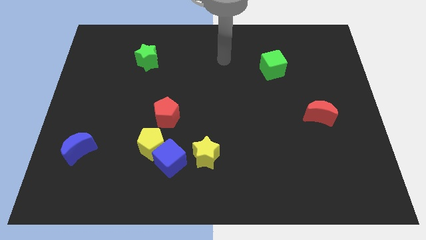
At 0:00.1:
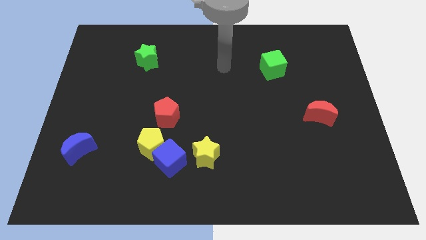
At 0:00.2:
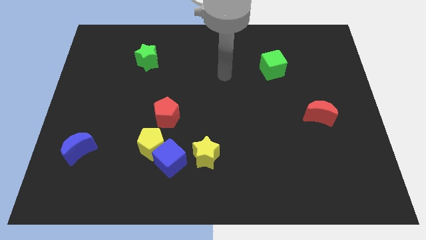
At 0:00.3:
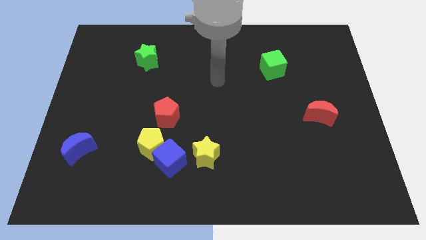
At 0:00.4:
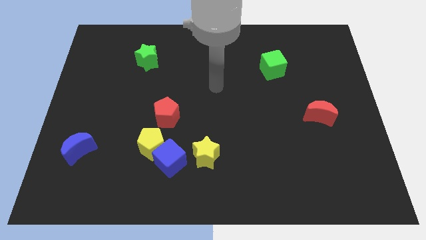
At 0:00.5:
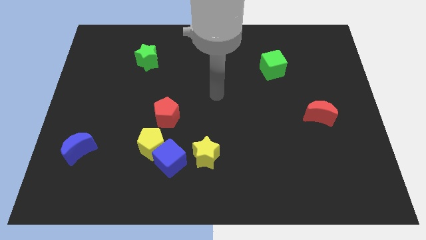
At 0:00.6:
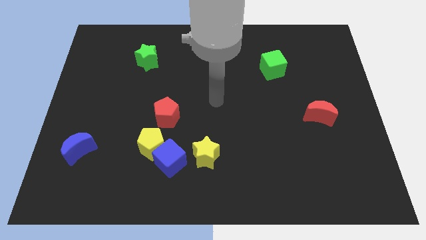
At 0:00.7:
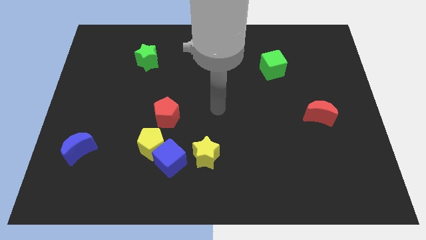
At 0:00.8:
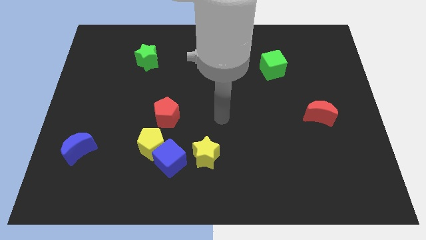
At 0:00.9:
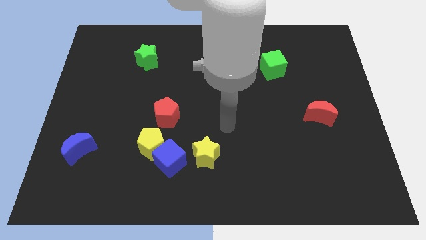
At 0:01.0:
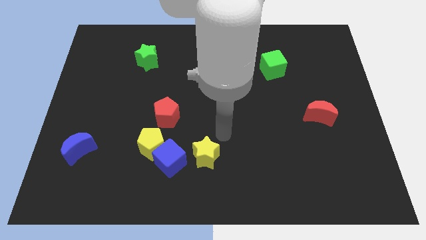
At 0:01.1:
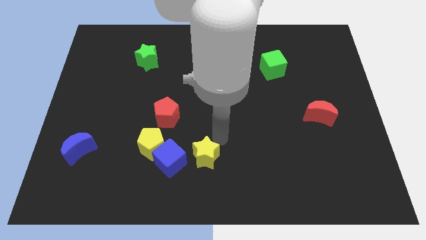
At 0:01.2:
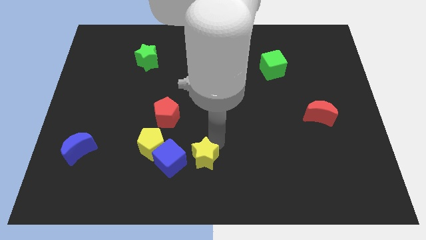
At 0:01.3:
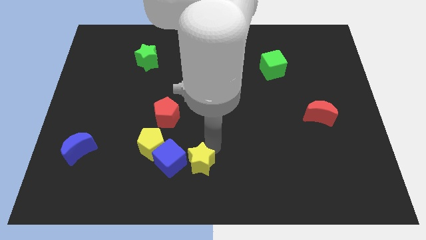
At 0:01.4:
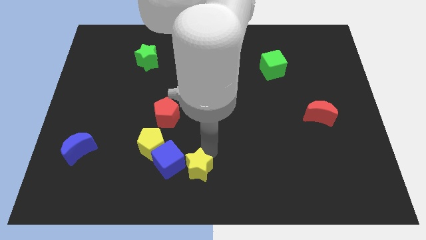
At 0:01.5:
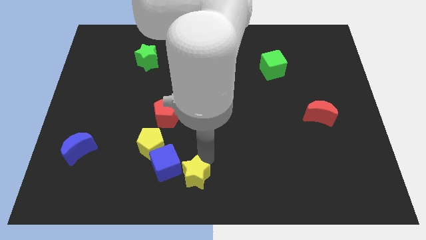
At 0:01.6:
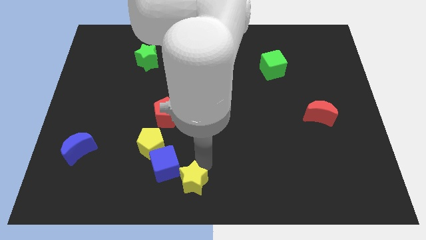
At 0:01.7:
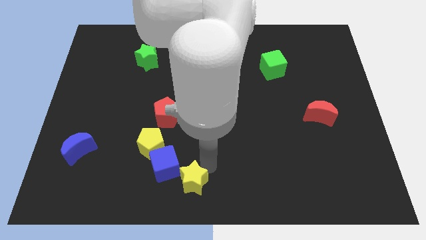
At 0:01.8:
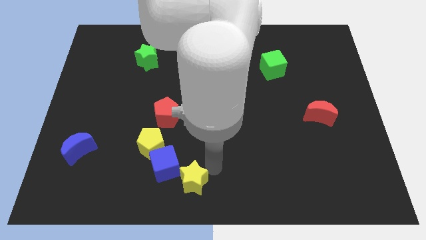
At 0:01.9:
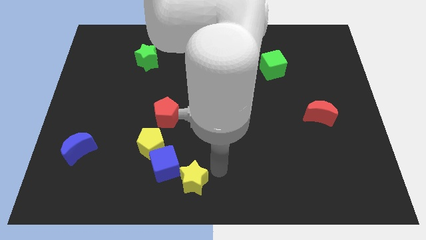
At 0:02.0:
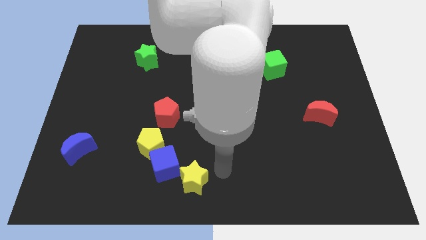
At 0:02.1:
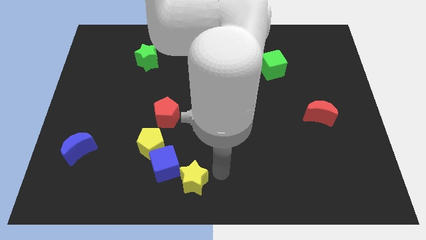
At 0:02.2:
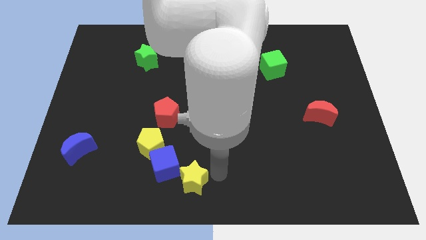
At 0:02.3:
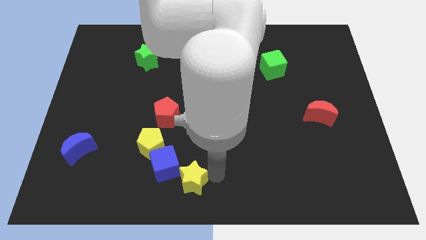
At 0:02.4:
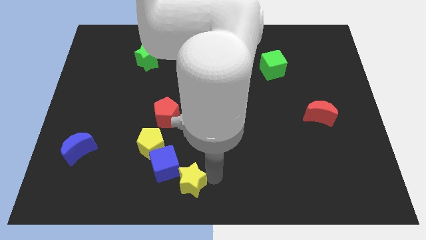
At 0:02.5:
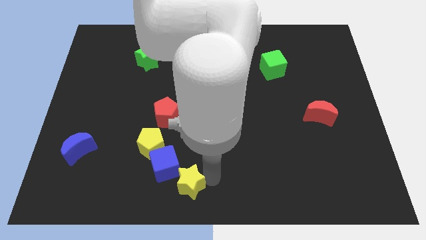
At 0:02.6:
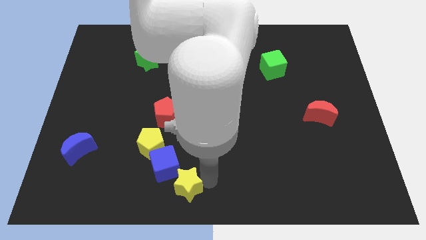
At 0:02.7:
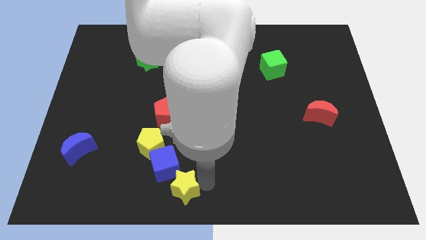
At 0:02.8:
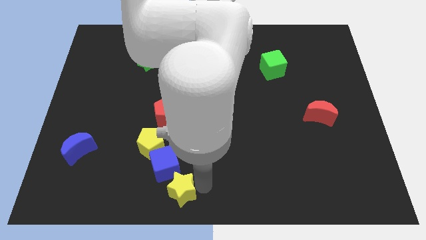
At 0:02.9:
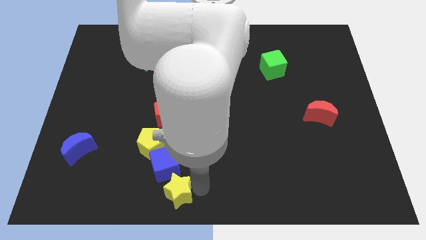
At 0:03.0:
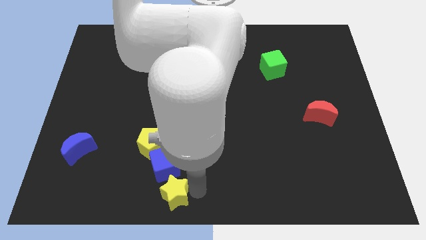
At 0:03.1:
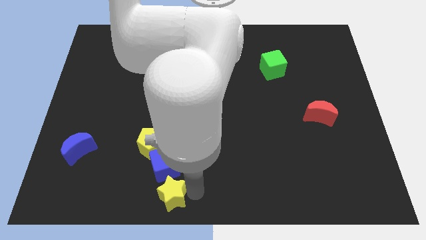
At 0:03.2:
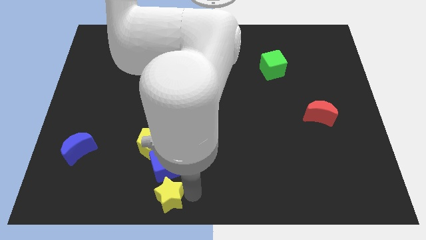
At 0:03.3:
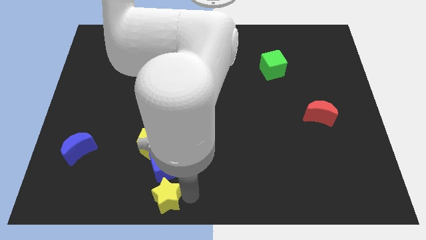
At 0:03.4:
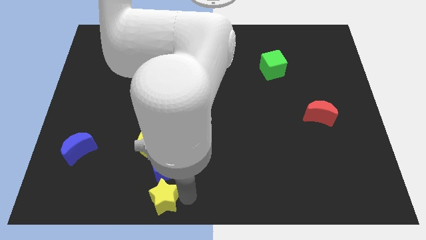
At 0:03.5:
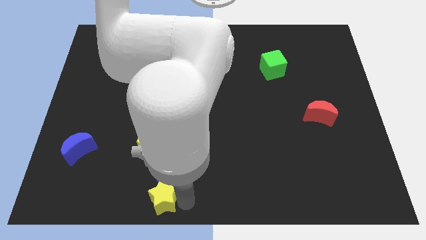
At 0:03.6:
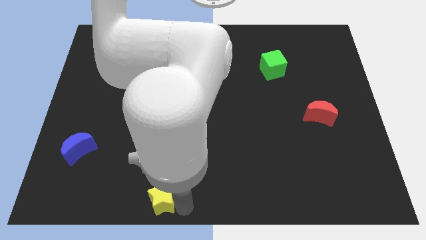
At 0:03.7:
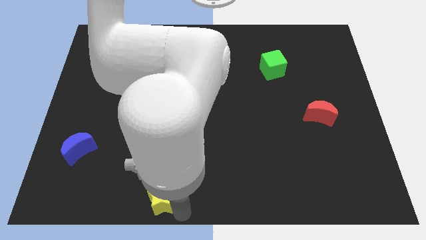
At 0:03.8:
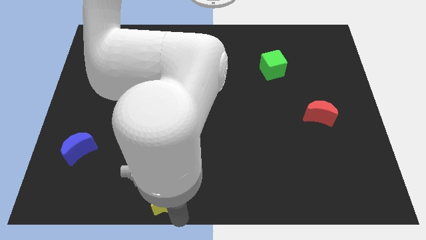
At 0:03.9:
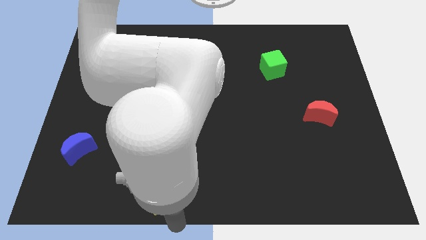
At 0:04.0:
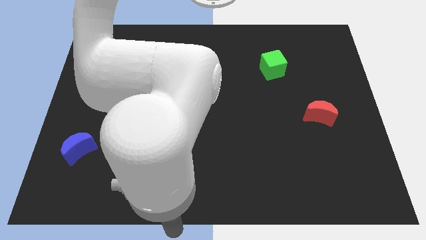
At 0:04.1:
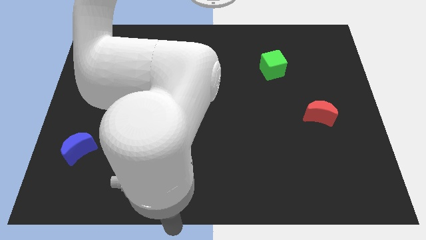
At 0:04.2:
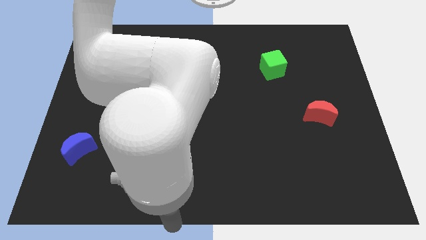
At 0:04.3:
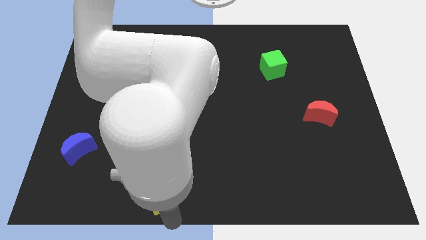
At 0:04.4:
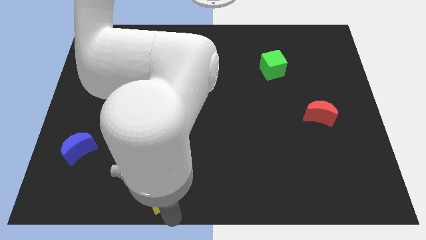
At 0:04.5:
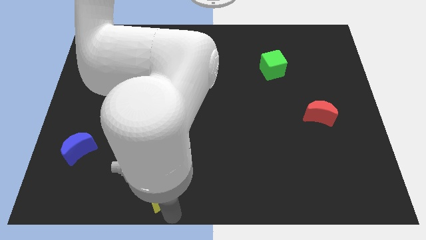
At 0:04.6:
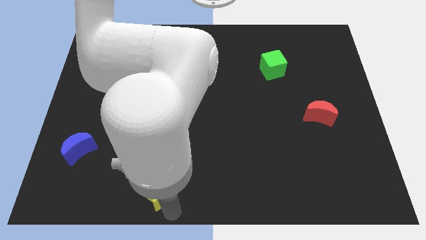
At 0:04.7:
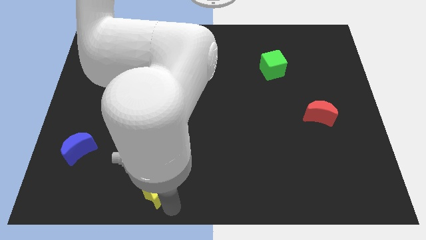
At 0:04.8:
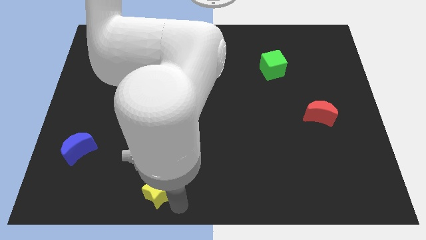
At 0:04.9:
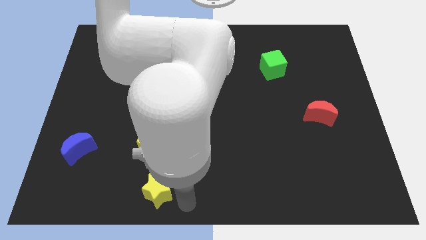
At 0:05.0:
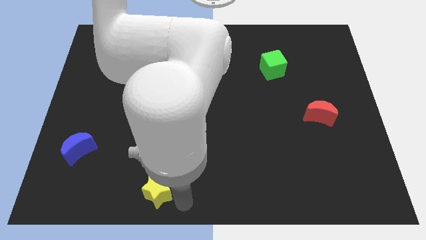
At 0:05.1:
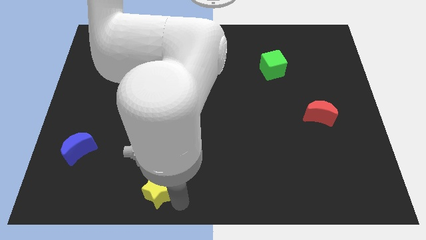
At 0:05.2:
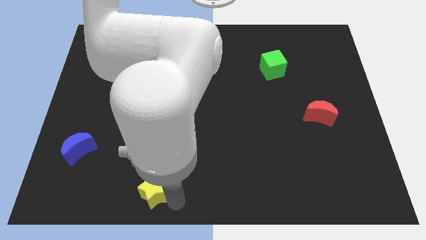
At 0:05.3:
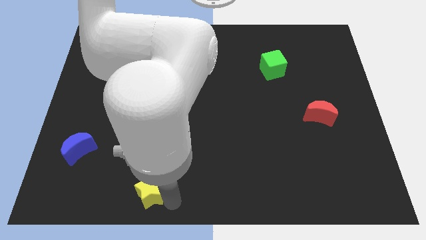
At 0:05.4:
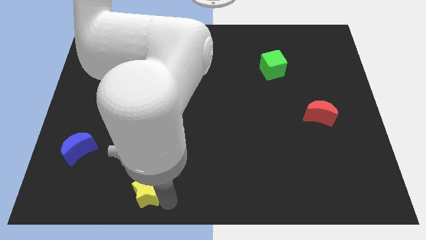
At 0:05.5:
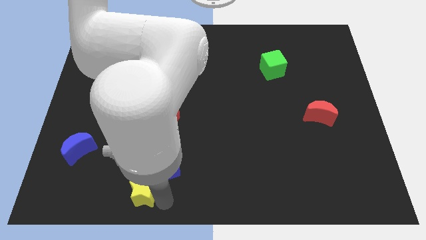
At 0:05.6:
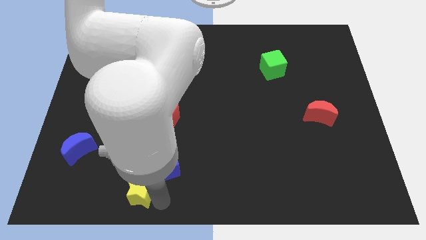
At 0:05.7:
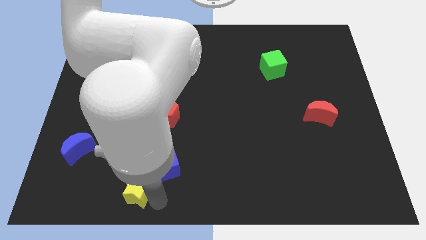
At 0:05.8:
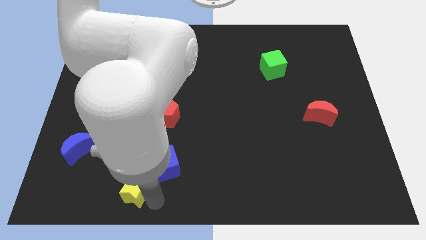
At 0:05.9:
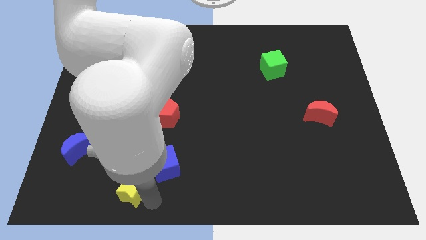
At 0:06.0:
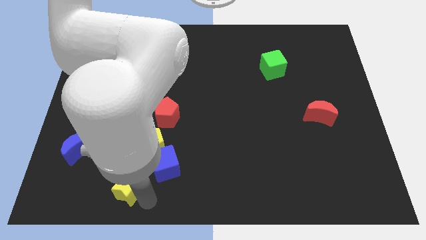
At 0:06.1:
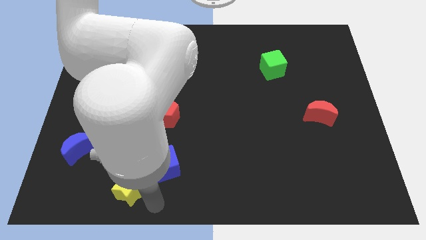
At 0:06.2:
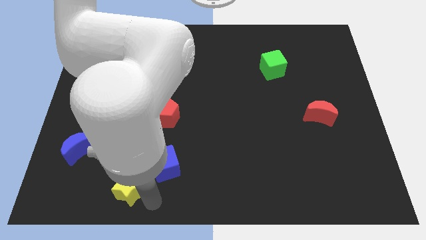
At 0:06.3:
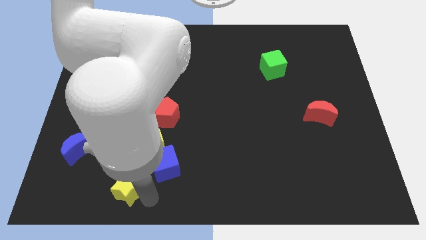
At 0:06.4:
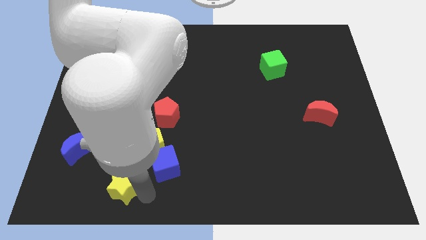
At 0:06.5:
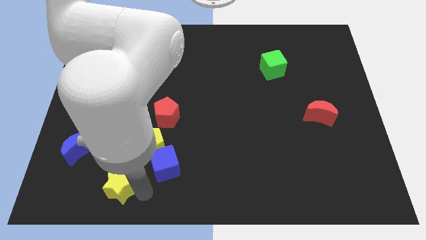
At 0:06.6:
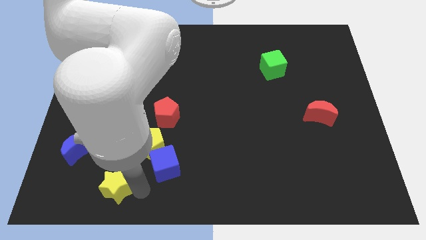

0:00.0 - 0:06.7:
push the yellow star diagonally down and to the right of the blue moon
